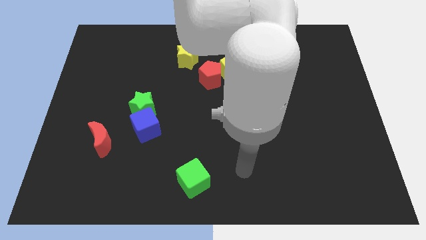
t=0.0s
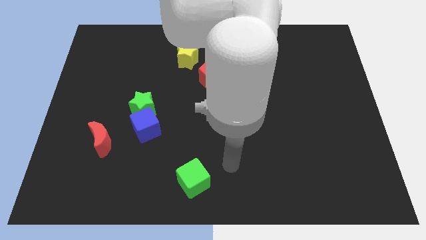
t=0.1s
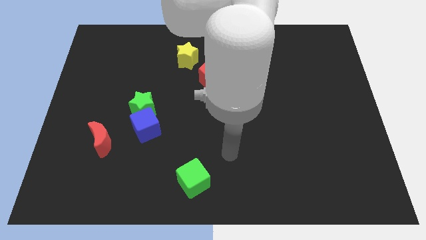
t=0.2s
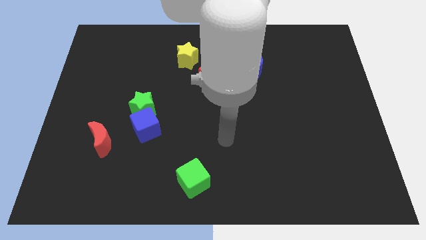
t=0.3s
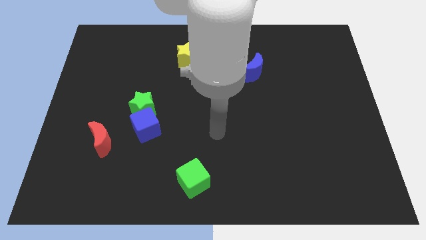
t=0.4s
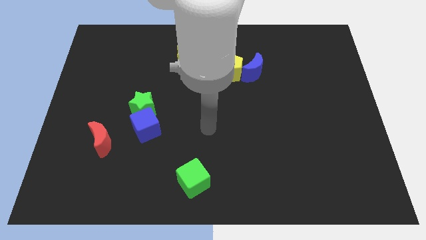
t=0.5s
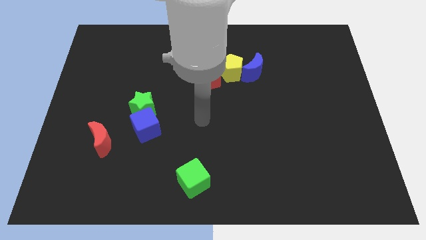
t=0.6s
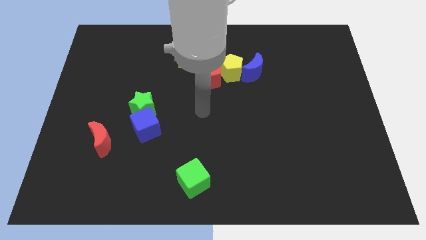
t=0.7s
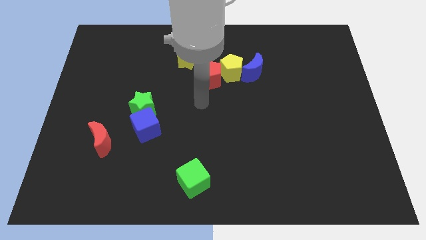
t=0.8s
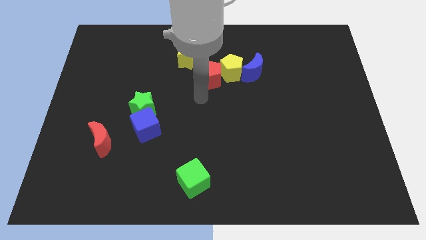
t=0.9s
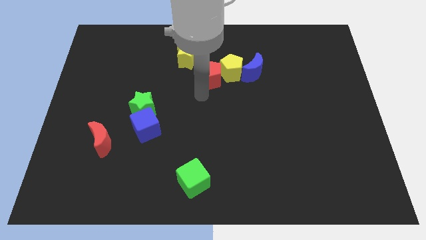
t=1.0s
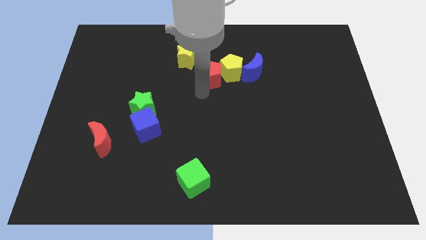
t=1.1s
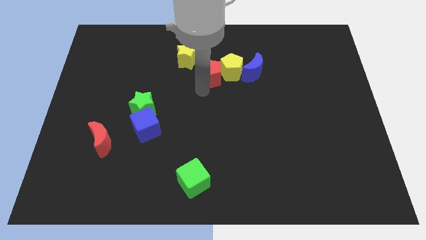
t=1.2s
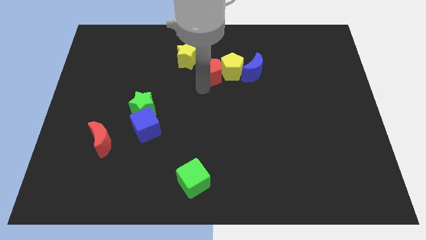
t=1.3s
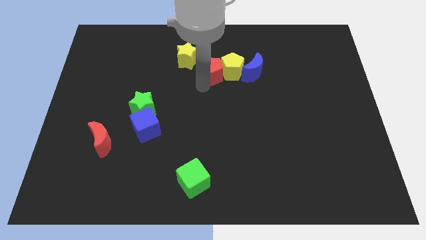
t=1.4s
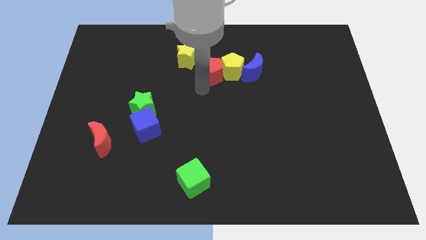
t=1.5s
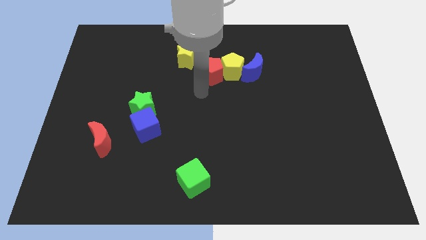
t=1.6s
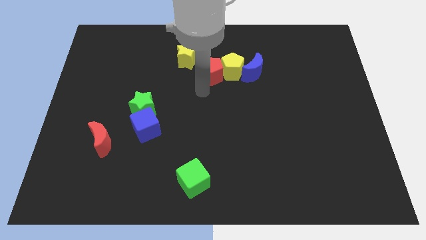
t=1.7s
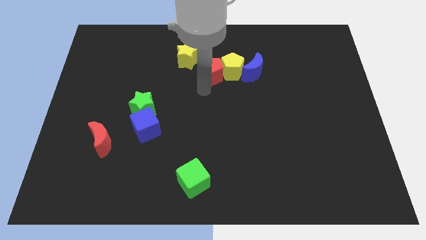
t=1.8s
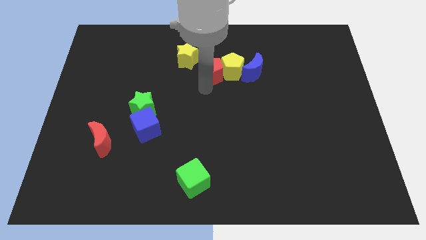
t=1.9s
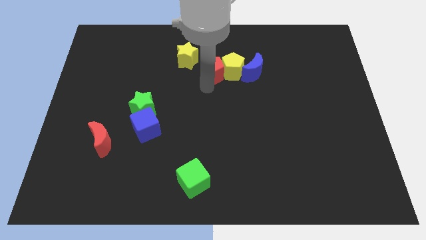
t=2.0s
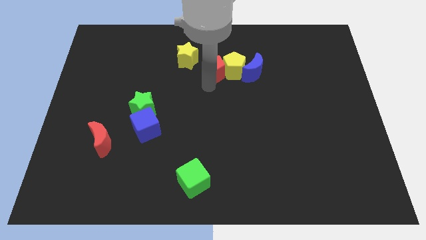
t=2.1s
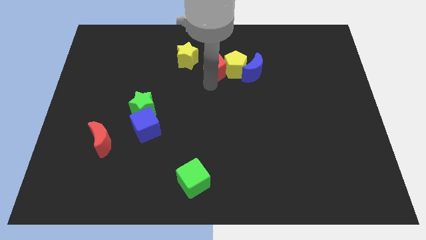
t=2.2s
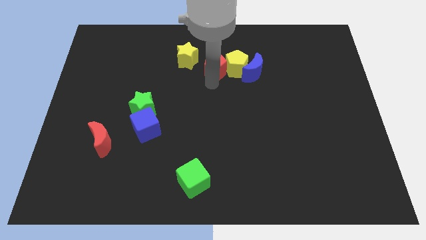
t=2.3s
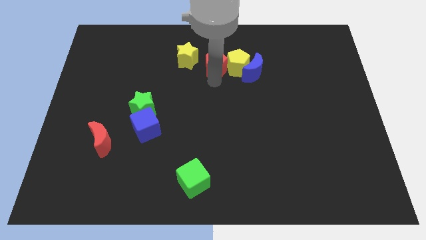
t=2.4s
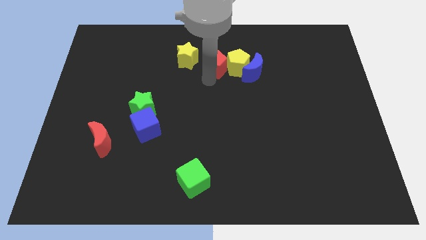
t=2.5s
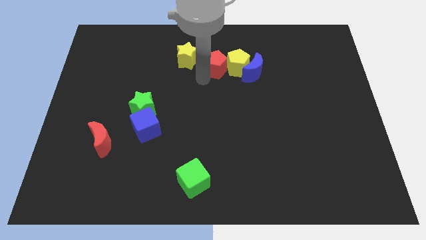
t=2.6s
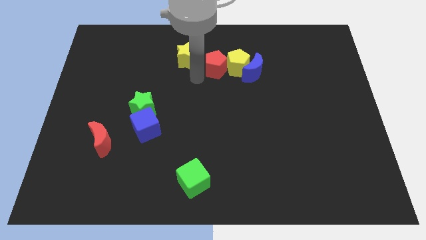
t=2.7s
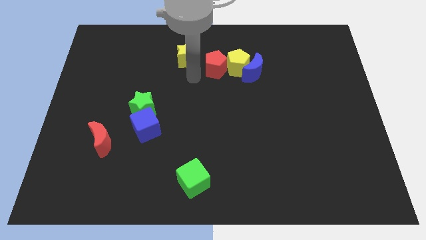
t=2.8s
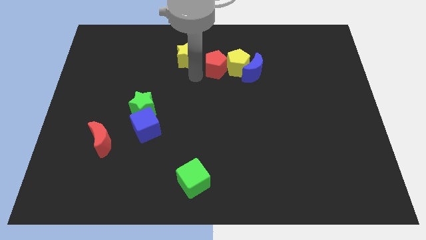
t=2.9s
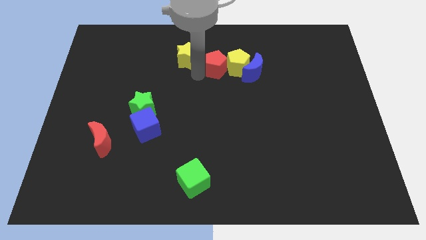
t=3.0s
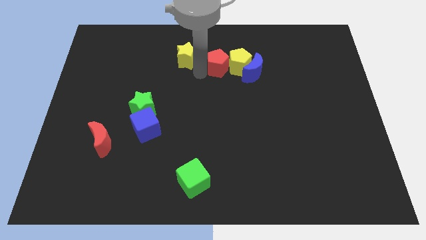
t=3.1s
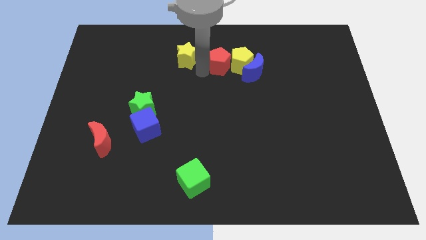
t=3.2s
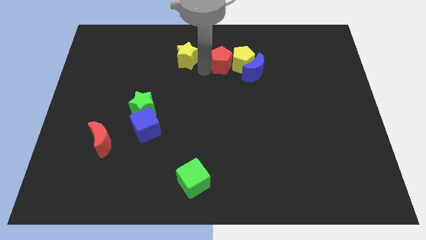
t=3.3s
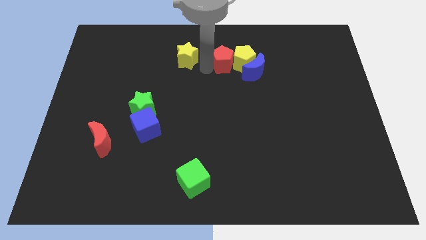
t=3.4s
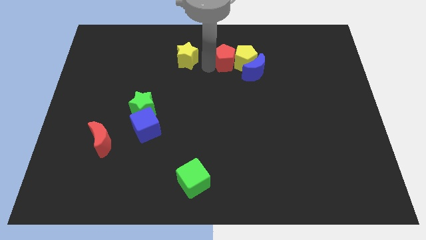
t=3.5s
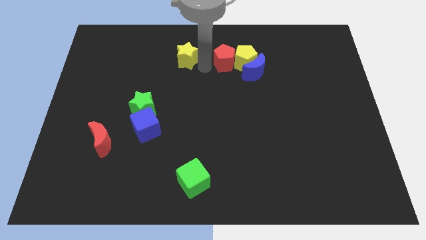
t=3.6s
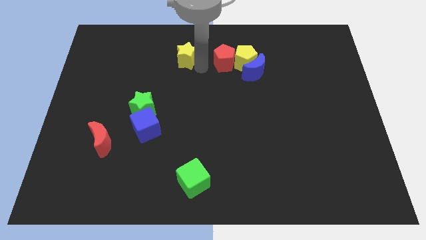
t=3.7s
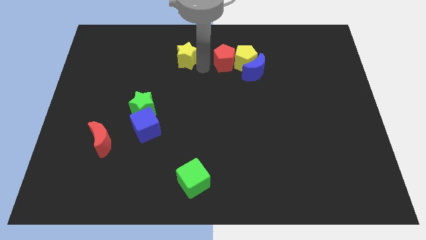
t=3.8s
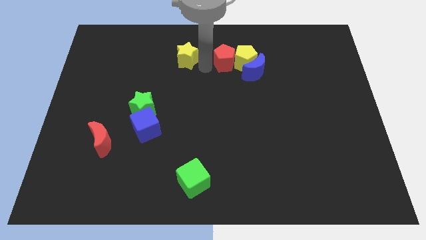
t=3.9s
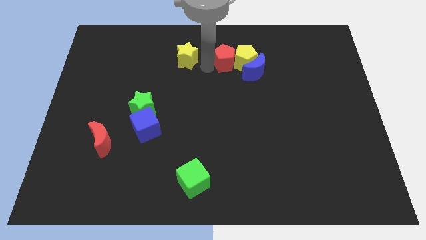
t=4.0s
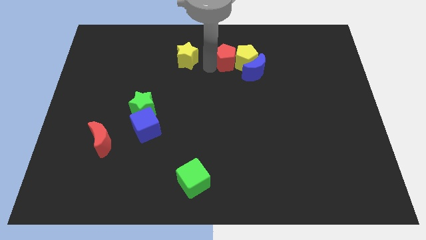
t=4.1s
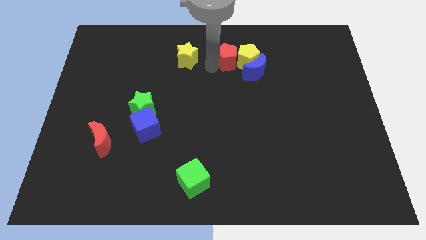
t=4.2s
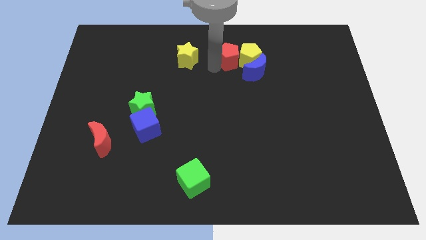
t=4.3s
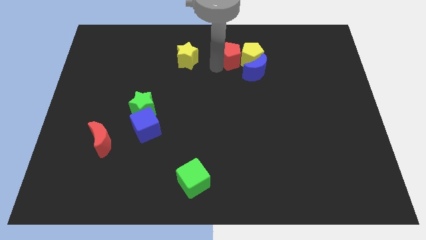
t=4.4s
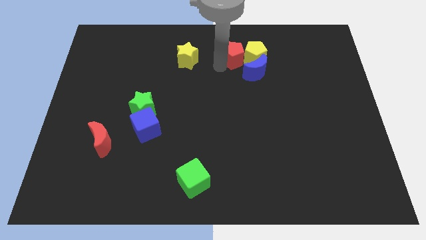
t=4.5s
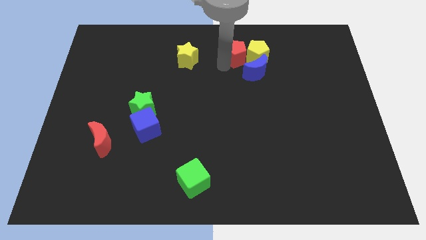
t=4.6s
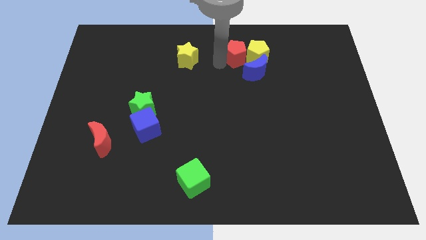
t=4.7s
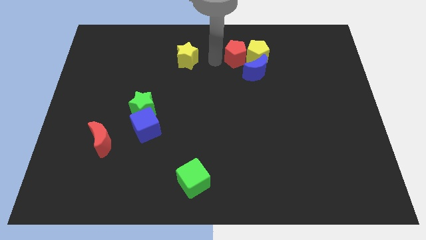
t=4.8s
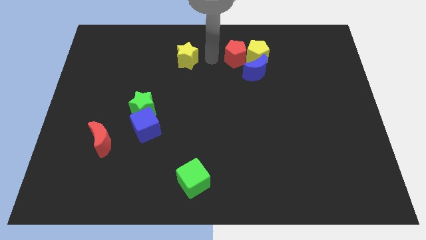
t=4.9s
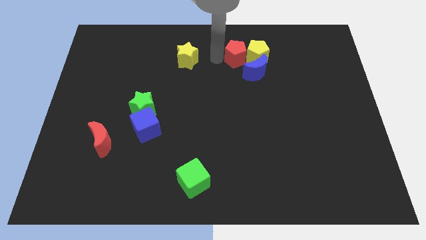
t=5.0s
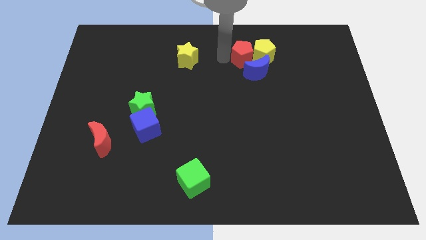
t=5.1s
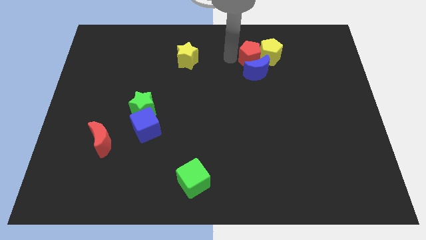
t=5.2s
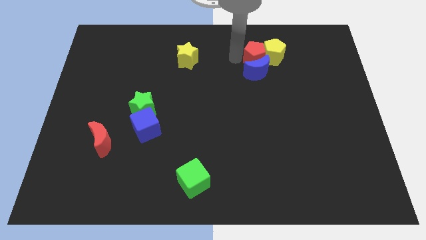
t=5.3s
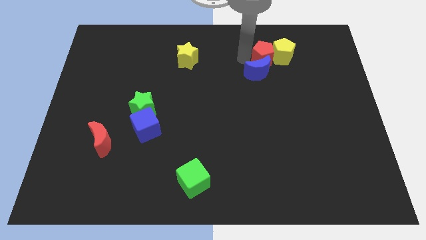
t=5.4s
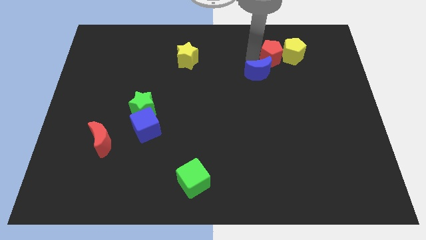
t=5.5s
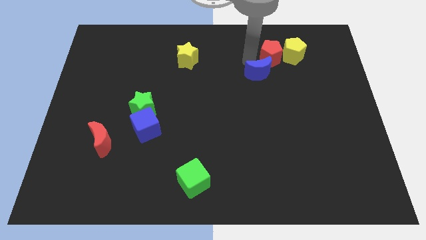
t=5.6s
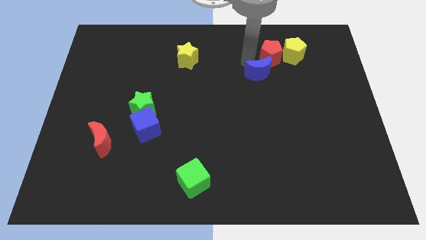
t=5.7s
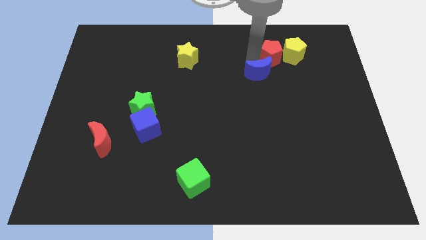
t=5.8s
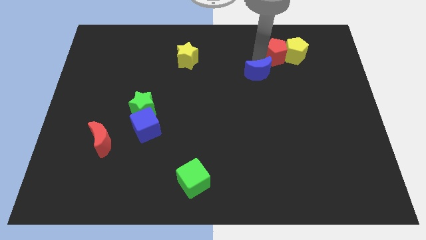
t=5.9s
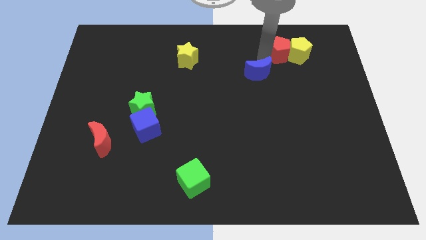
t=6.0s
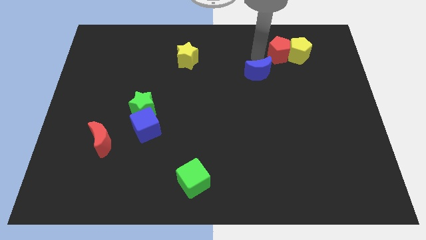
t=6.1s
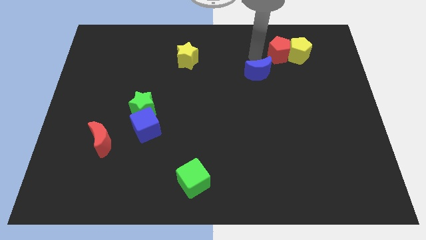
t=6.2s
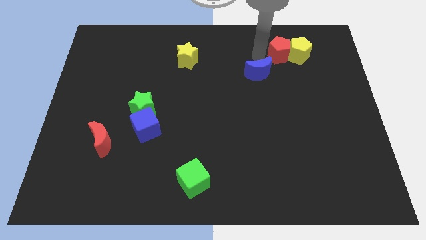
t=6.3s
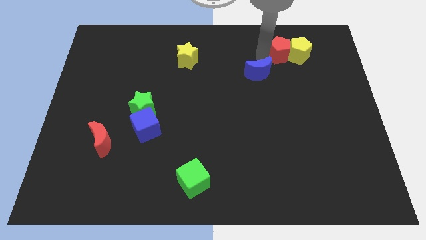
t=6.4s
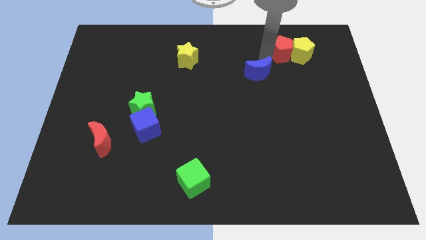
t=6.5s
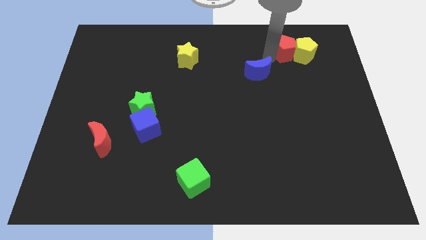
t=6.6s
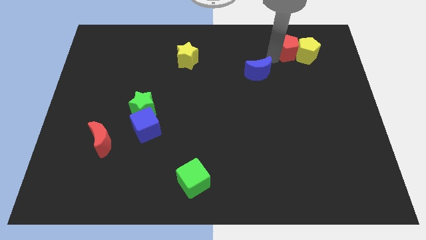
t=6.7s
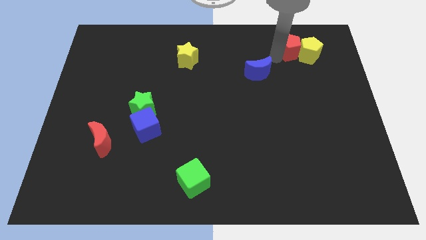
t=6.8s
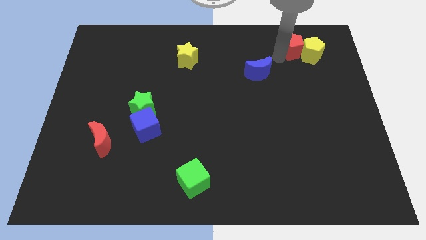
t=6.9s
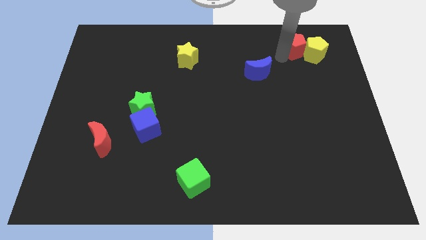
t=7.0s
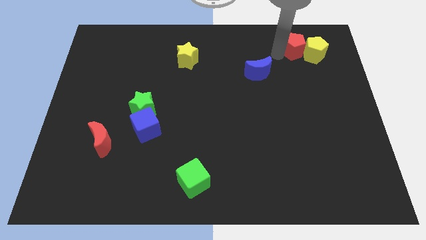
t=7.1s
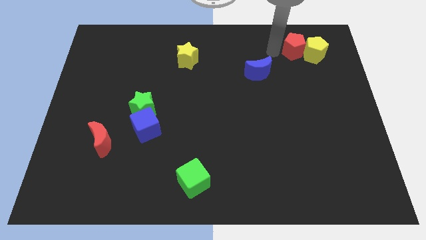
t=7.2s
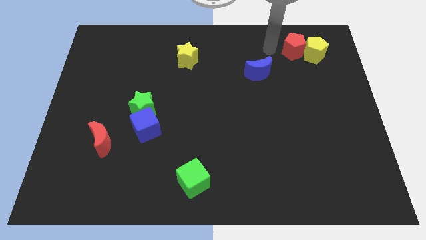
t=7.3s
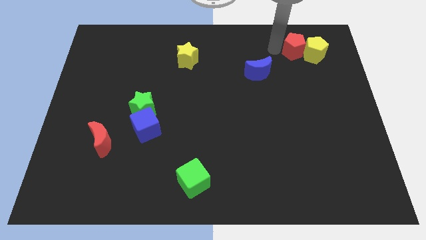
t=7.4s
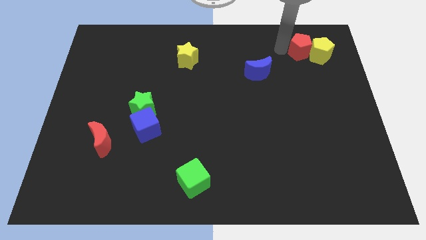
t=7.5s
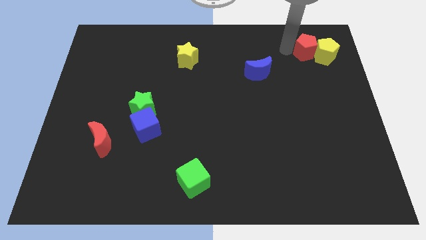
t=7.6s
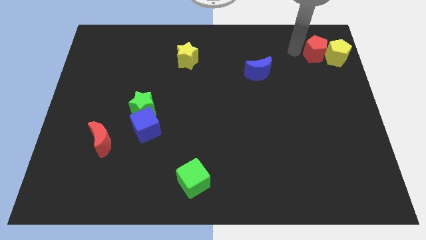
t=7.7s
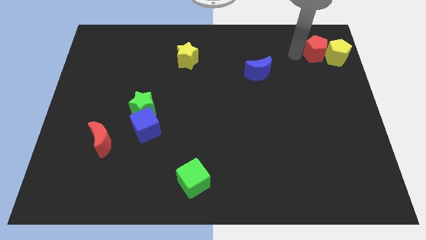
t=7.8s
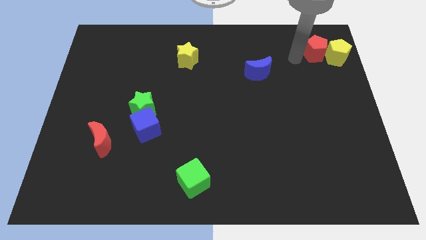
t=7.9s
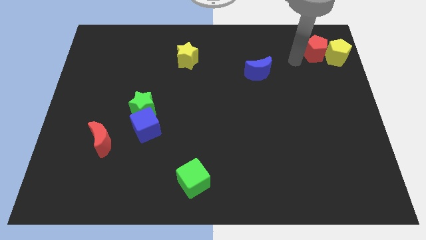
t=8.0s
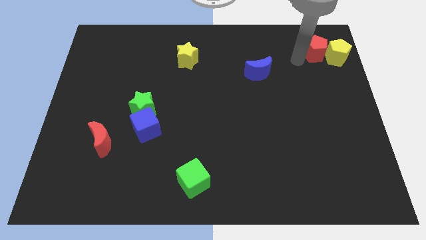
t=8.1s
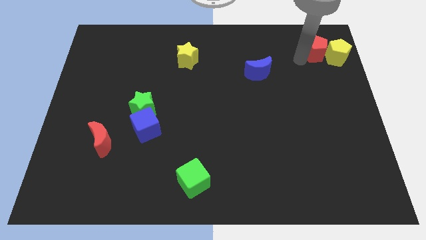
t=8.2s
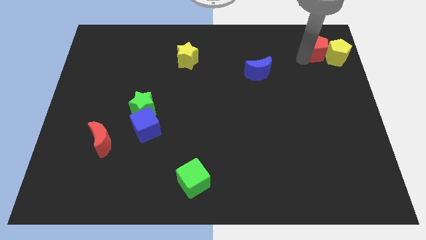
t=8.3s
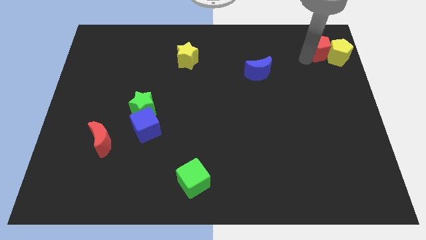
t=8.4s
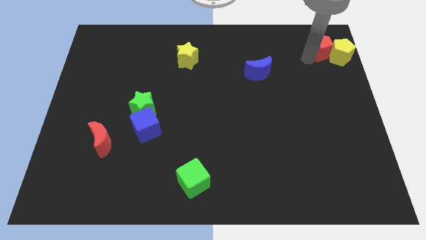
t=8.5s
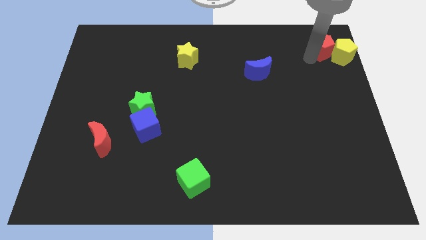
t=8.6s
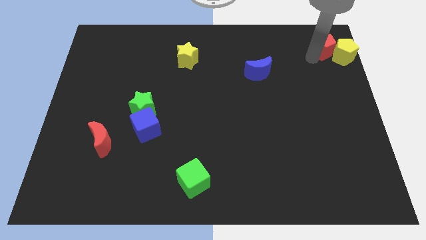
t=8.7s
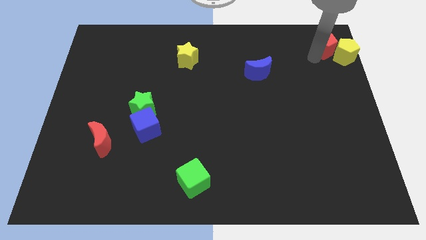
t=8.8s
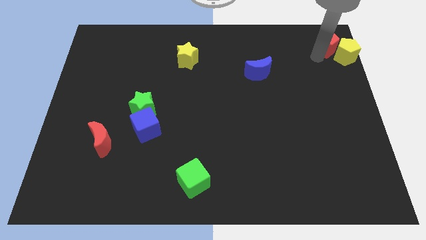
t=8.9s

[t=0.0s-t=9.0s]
put the red pentagon to the top right corner
